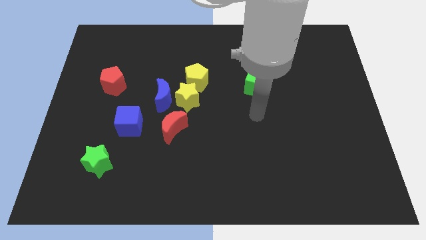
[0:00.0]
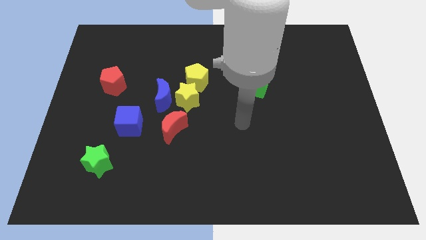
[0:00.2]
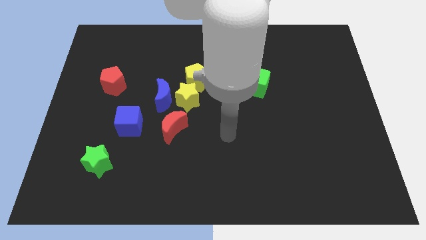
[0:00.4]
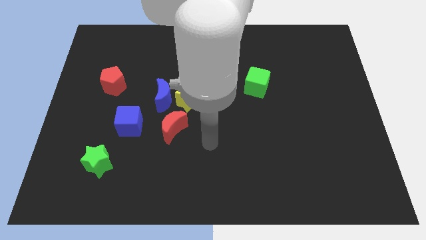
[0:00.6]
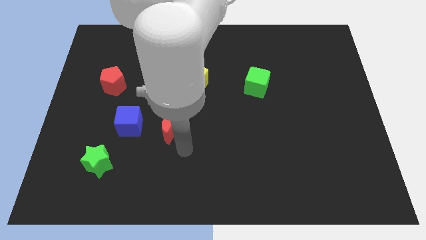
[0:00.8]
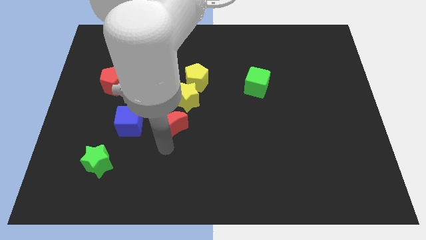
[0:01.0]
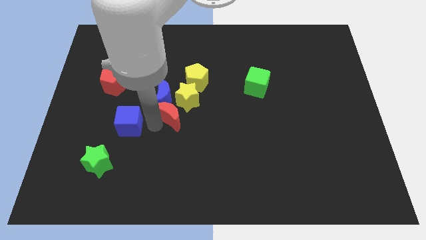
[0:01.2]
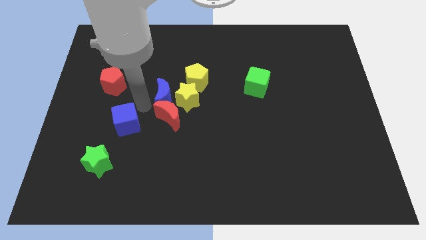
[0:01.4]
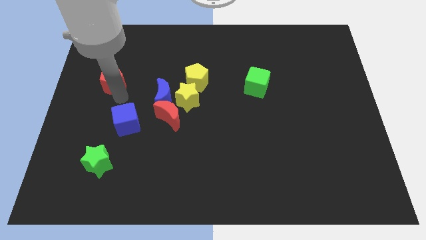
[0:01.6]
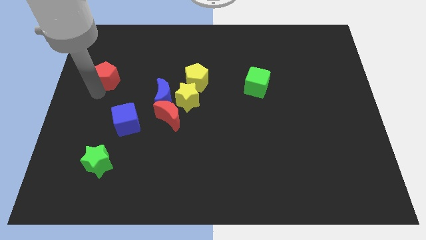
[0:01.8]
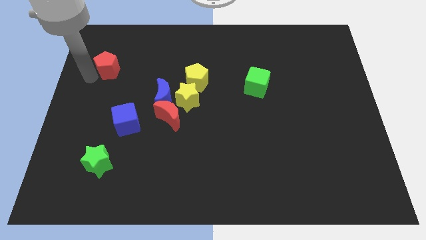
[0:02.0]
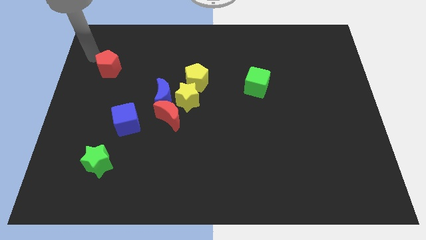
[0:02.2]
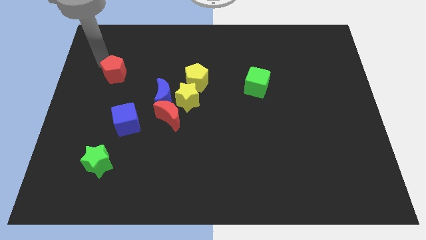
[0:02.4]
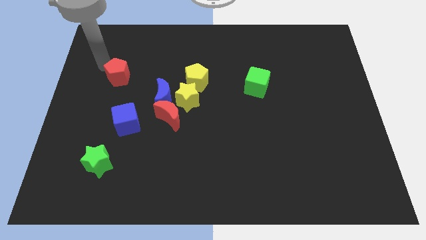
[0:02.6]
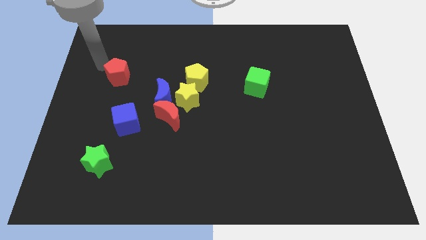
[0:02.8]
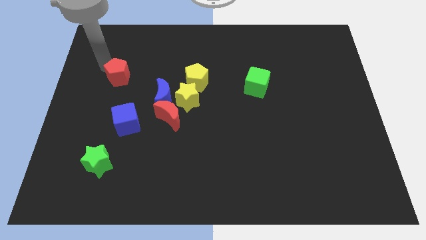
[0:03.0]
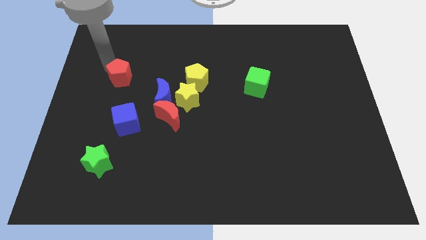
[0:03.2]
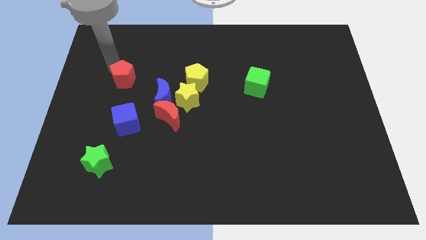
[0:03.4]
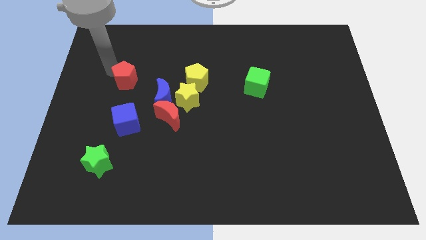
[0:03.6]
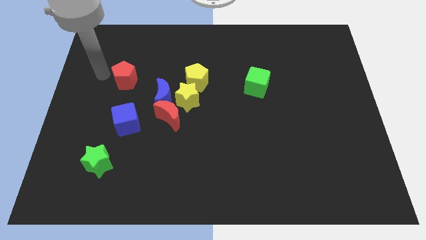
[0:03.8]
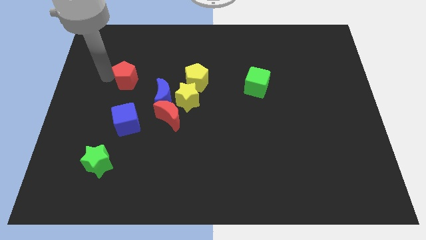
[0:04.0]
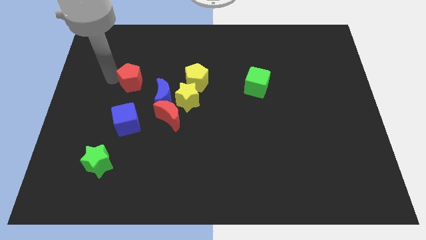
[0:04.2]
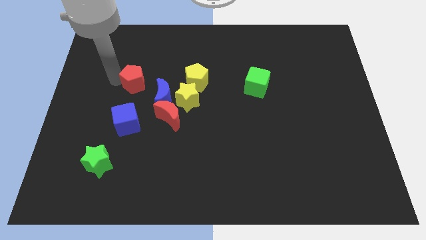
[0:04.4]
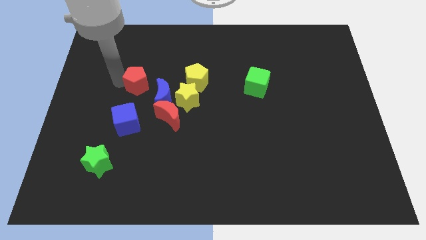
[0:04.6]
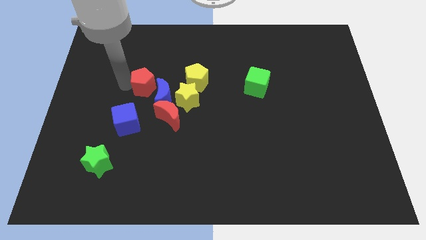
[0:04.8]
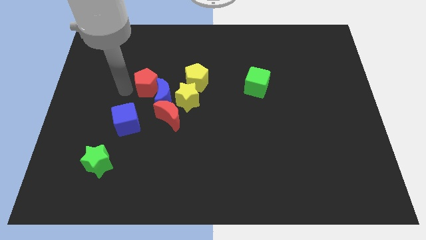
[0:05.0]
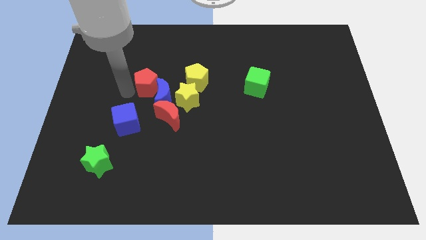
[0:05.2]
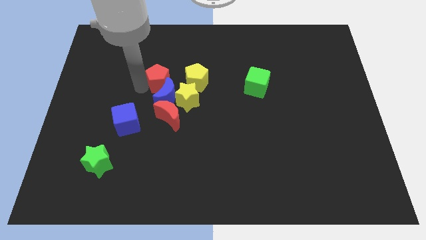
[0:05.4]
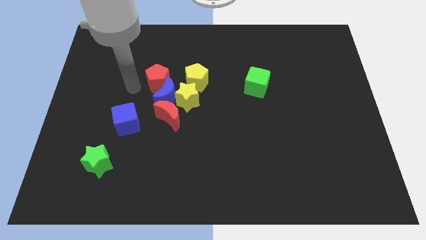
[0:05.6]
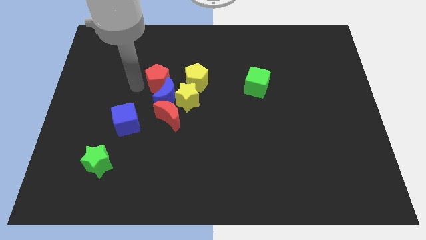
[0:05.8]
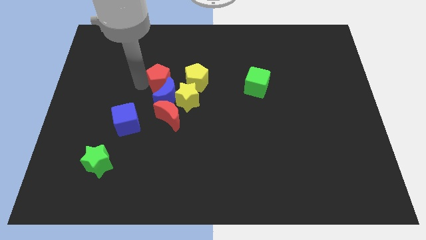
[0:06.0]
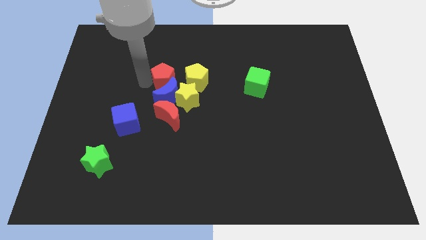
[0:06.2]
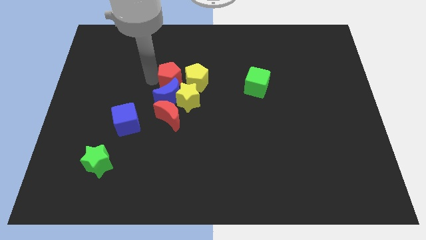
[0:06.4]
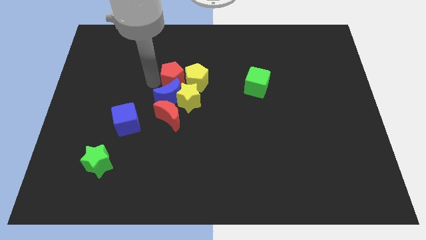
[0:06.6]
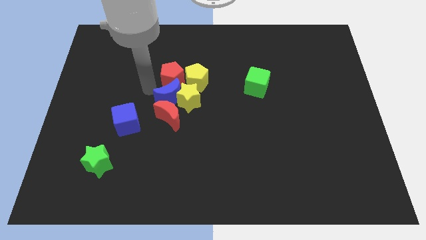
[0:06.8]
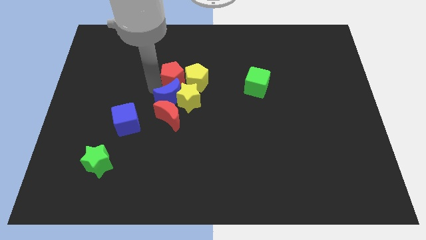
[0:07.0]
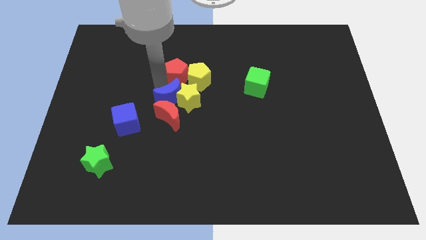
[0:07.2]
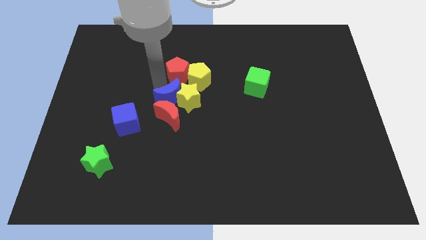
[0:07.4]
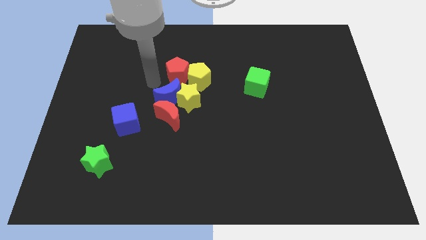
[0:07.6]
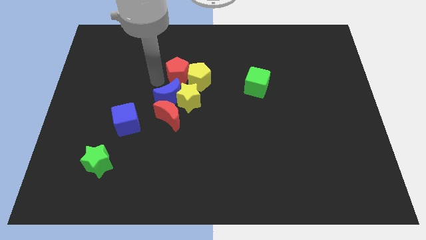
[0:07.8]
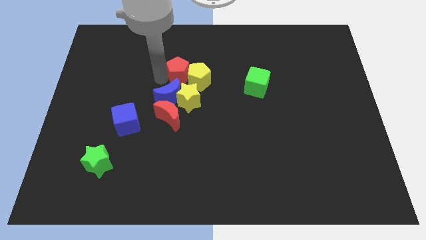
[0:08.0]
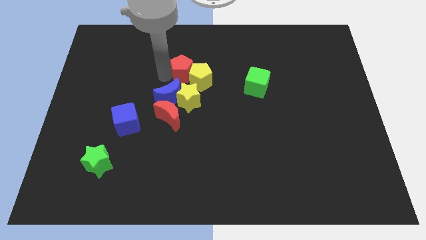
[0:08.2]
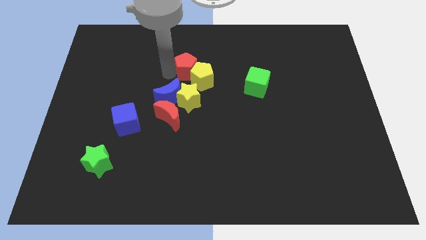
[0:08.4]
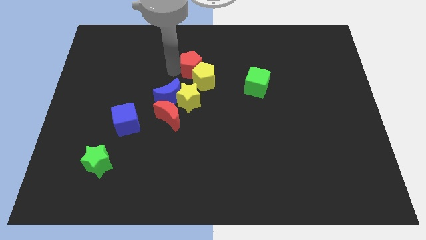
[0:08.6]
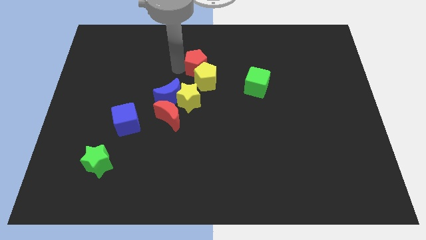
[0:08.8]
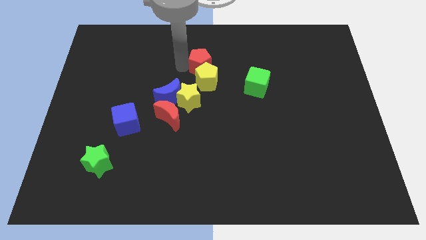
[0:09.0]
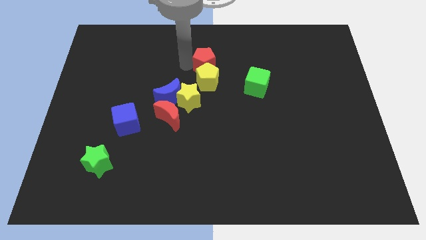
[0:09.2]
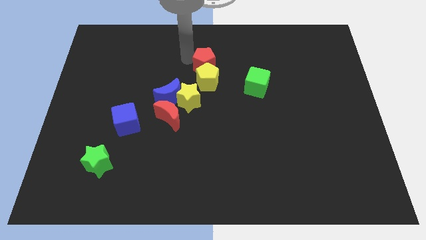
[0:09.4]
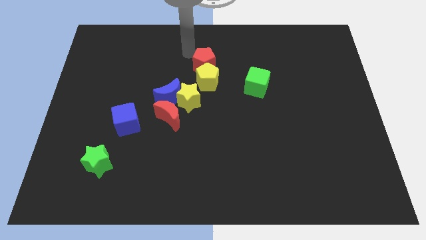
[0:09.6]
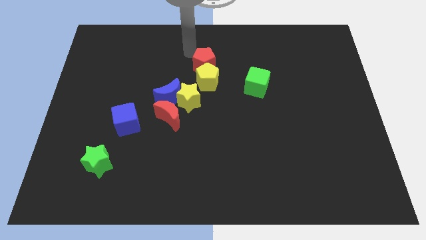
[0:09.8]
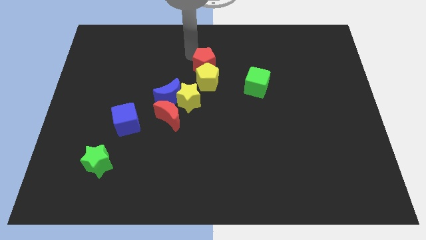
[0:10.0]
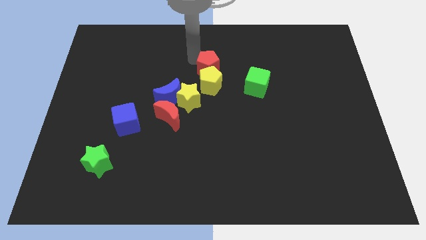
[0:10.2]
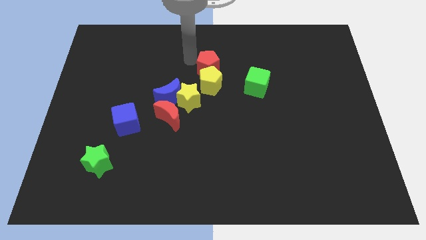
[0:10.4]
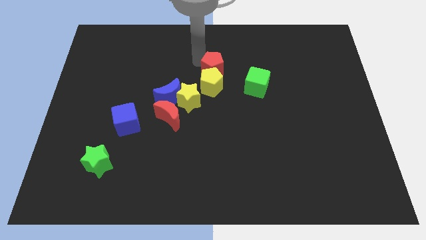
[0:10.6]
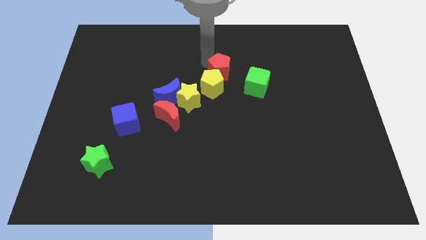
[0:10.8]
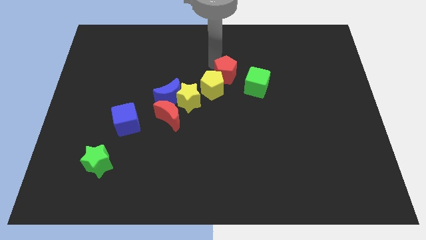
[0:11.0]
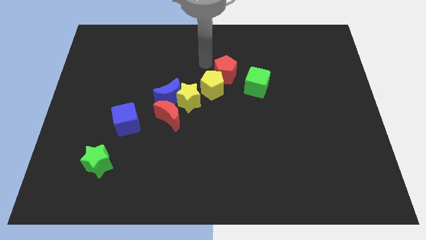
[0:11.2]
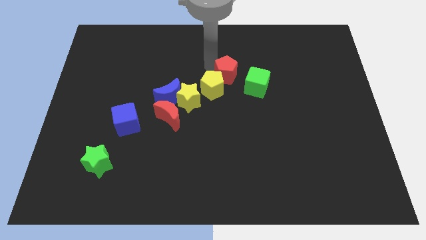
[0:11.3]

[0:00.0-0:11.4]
push the red pentagon right of the yellow pentagon

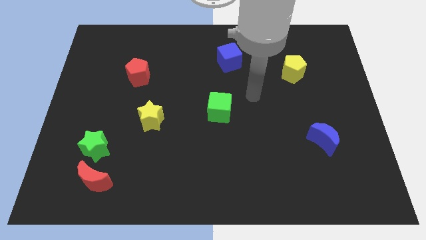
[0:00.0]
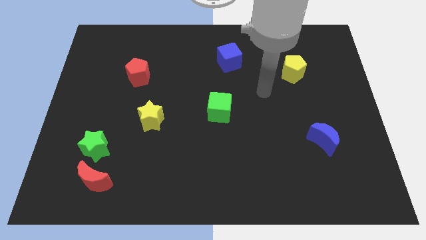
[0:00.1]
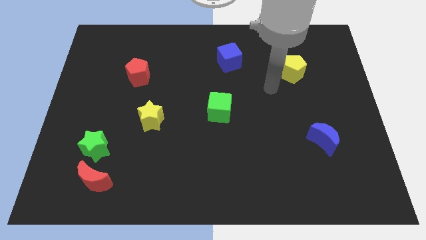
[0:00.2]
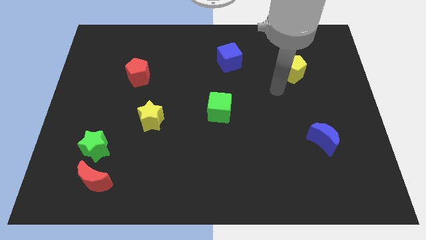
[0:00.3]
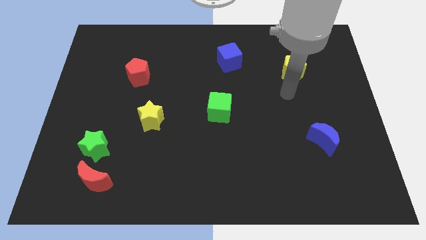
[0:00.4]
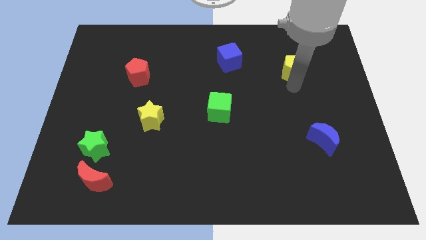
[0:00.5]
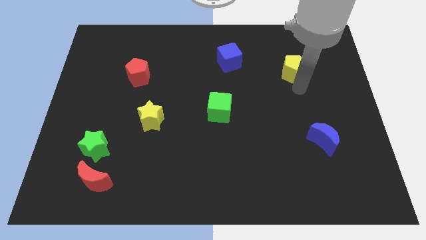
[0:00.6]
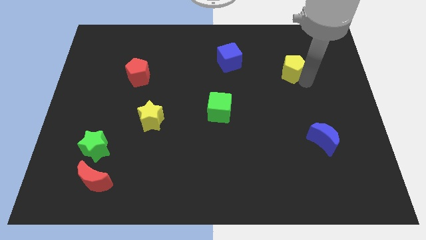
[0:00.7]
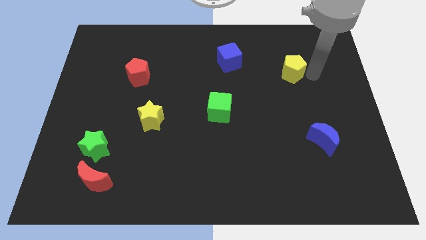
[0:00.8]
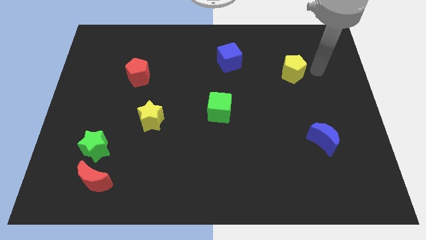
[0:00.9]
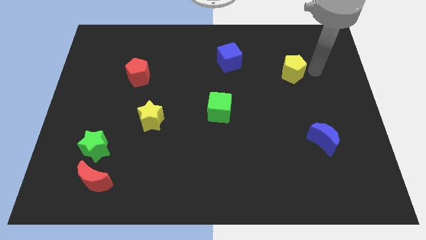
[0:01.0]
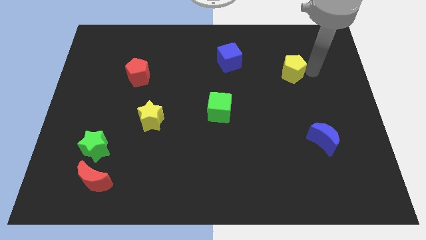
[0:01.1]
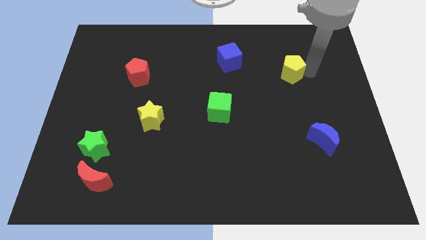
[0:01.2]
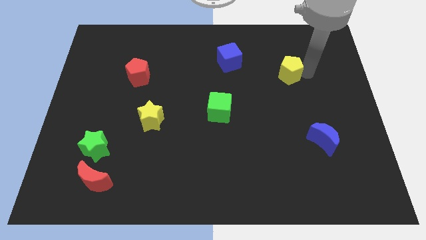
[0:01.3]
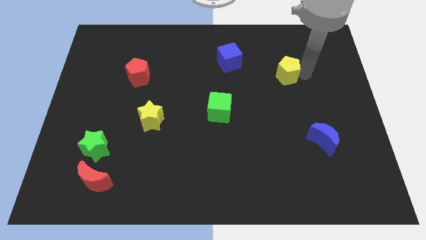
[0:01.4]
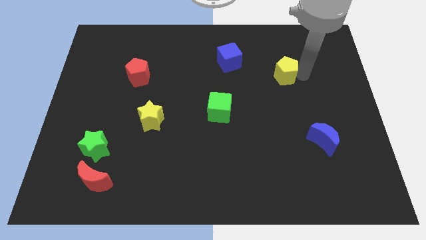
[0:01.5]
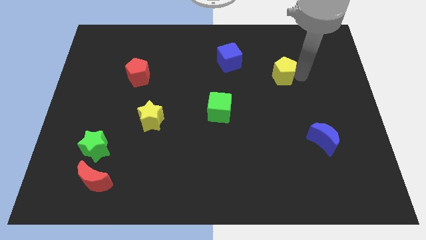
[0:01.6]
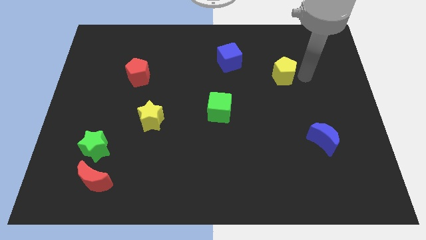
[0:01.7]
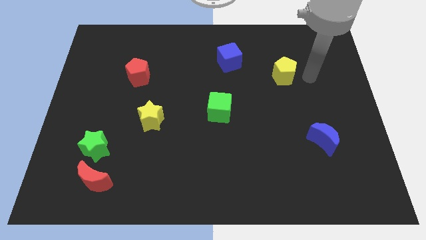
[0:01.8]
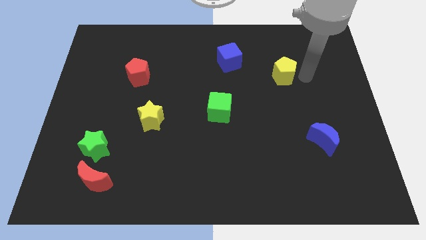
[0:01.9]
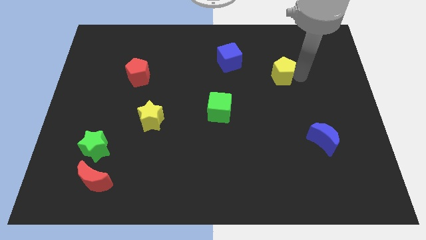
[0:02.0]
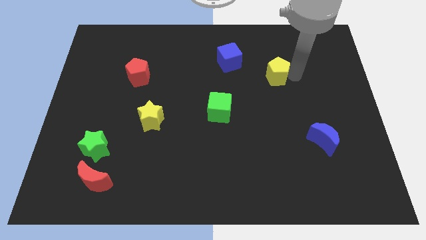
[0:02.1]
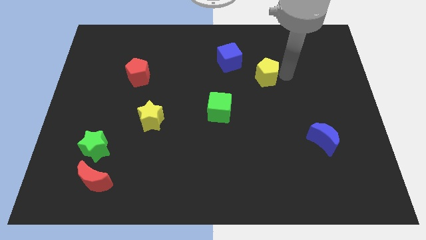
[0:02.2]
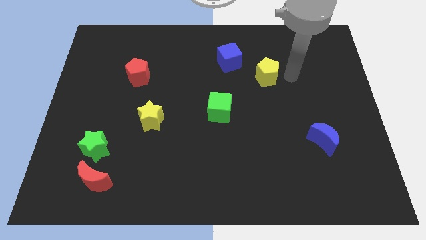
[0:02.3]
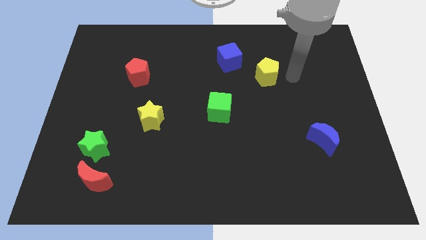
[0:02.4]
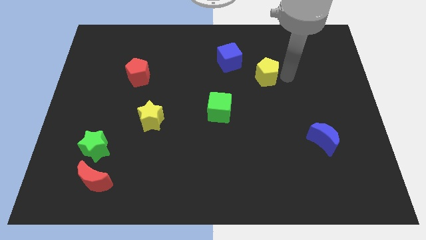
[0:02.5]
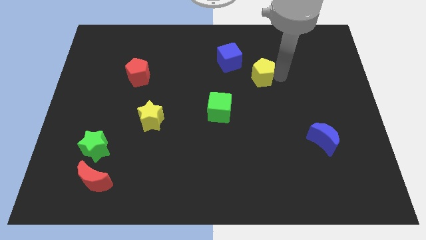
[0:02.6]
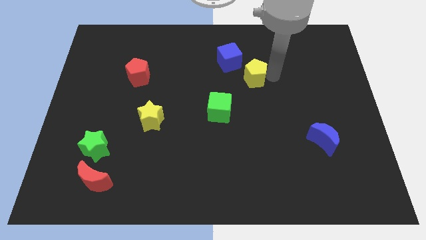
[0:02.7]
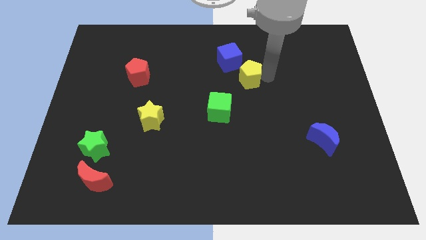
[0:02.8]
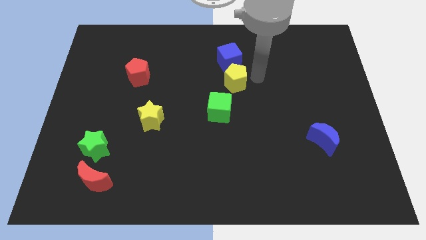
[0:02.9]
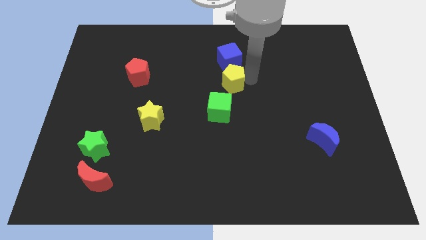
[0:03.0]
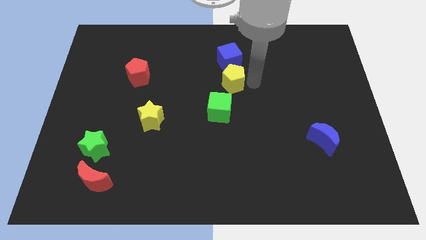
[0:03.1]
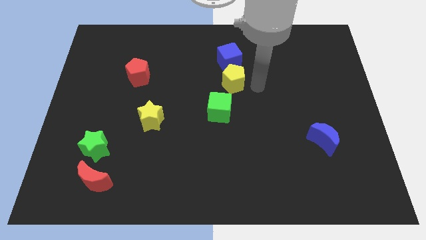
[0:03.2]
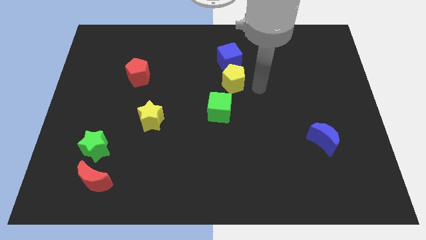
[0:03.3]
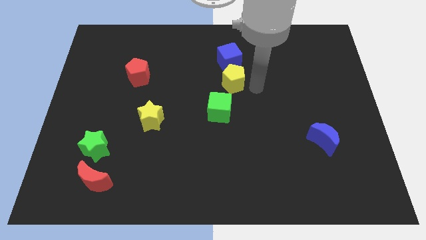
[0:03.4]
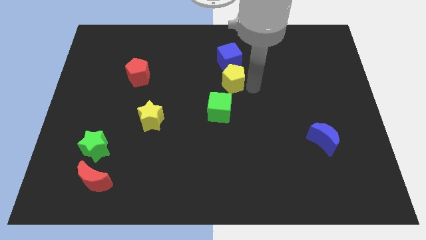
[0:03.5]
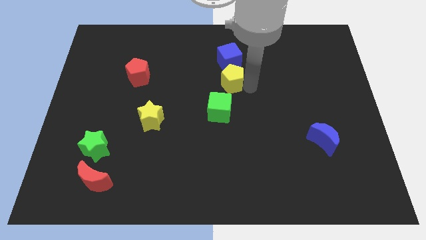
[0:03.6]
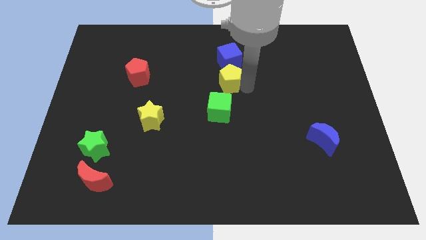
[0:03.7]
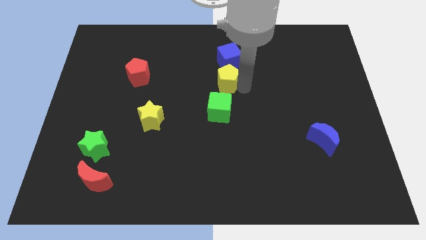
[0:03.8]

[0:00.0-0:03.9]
move the yellow pentagon to the bottom left of the blue cube
